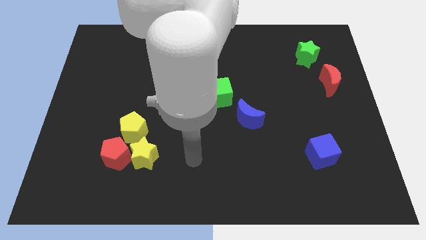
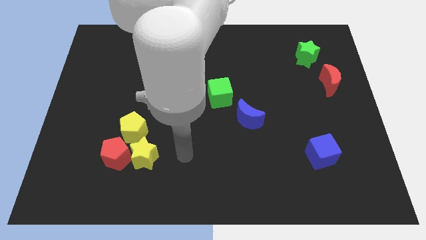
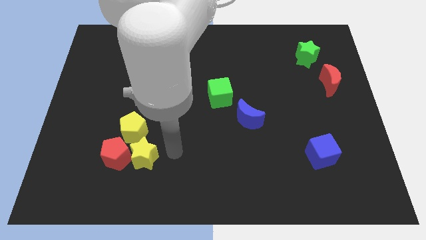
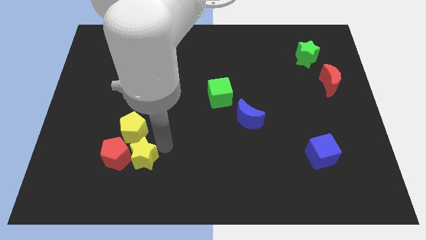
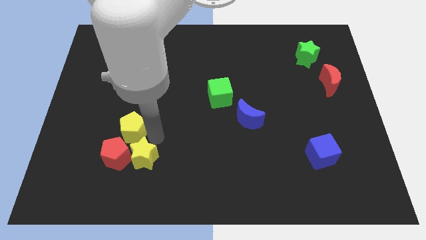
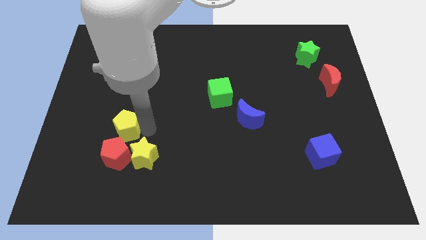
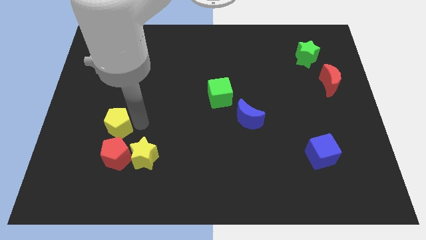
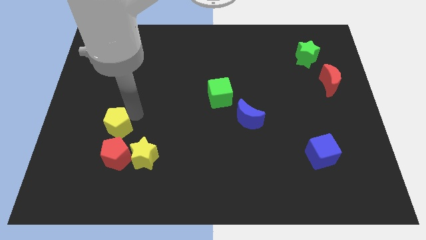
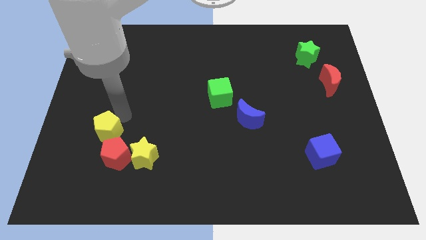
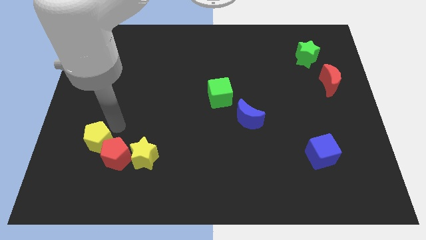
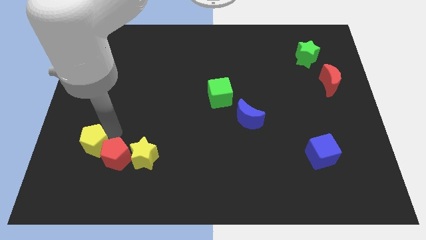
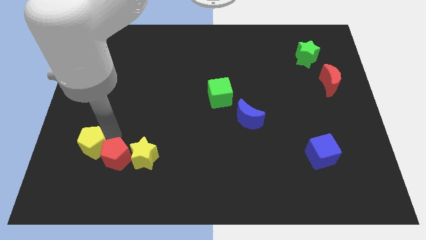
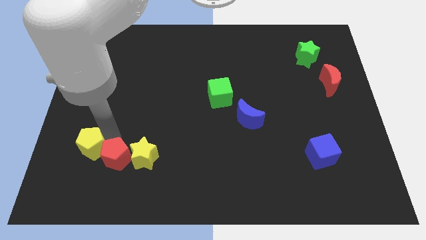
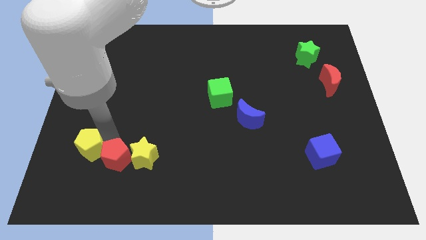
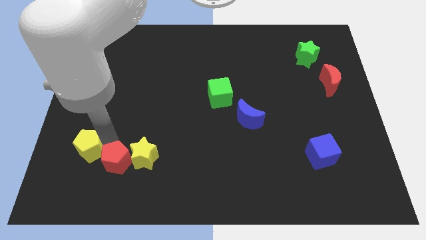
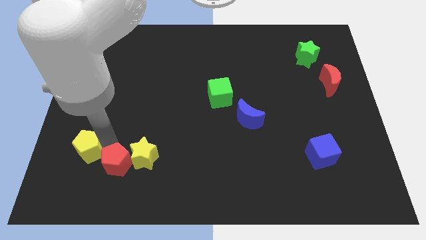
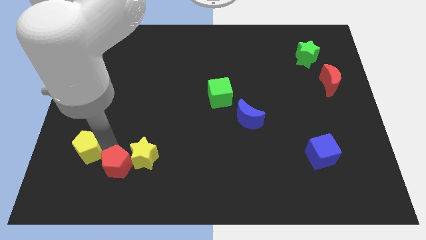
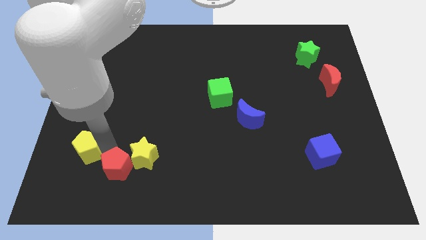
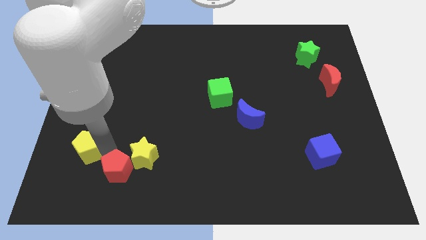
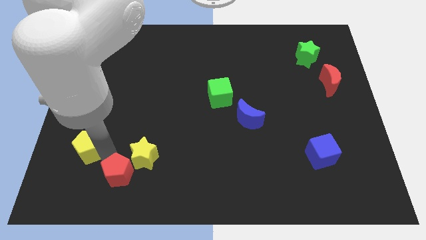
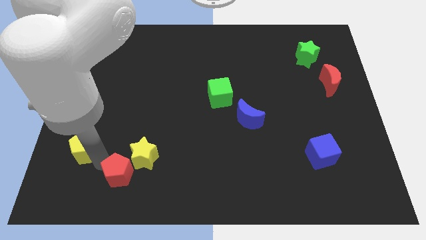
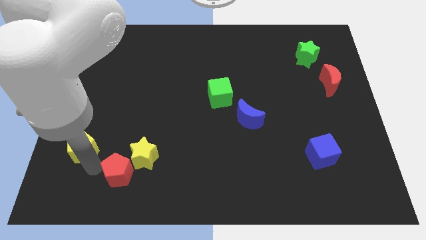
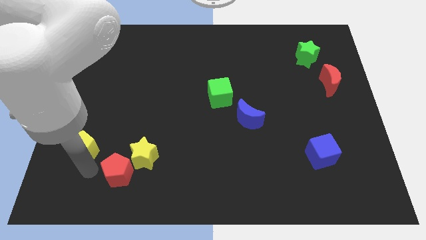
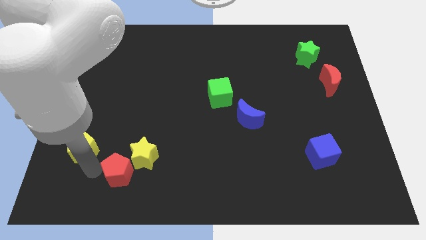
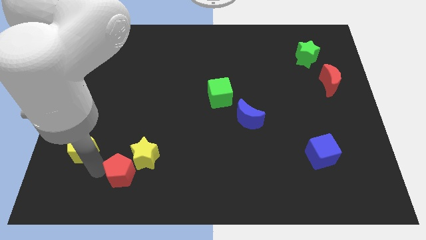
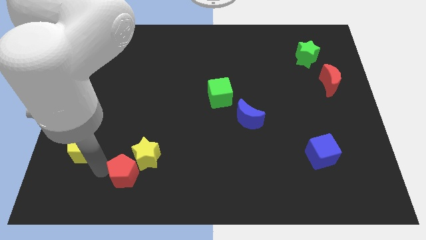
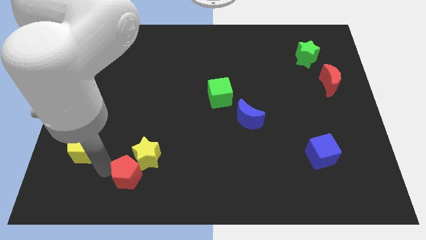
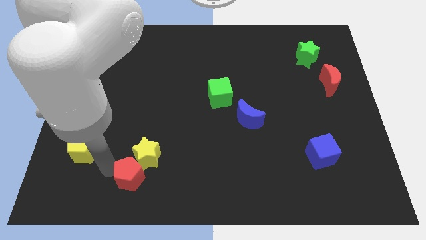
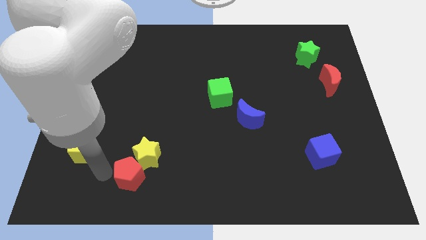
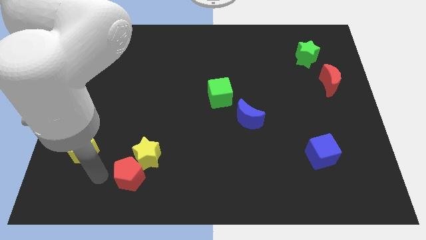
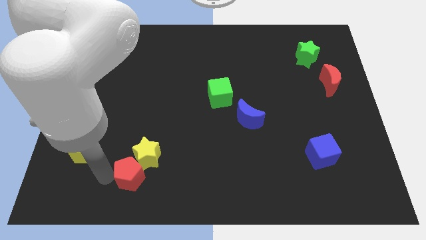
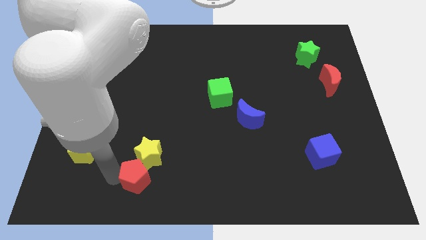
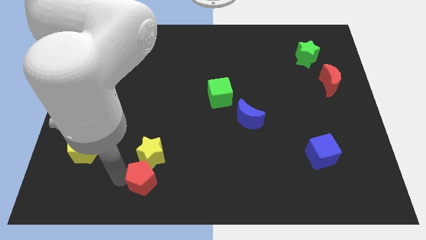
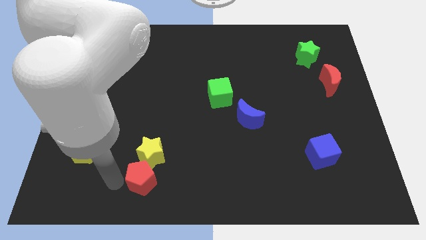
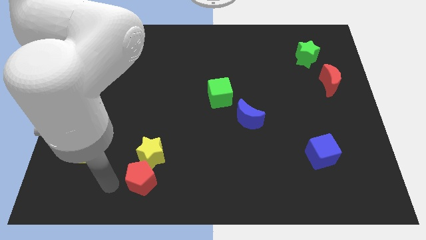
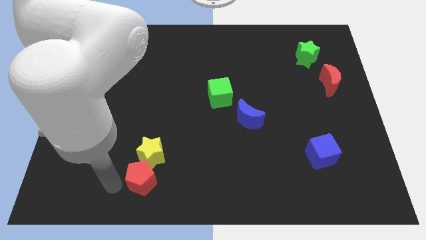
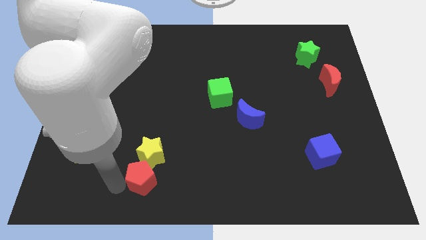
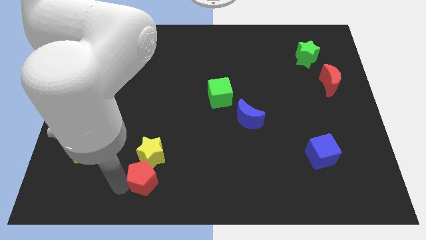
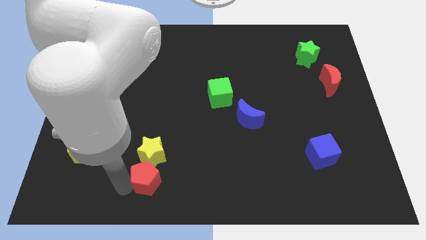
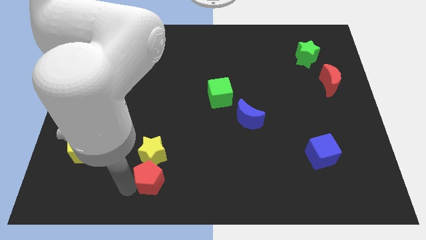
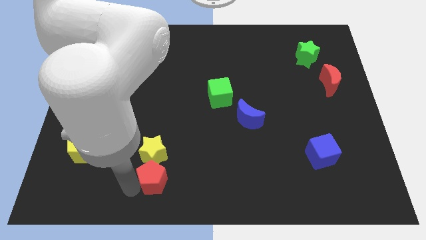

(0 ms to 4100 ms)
slide the red pentagon to the right somewhat

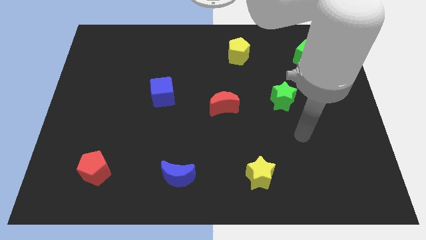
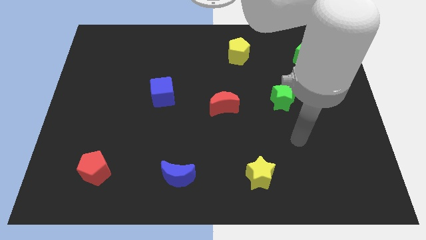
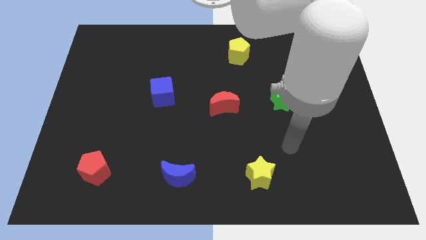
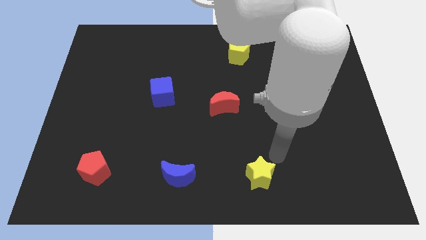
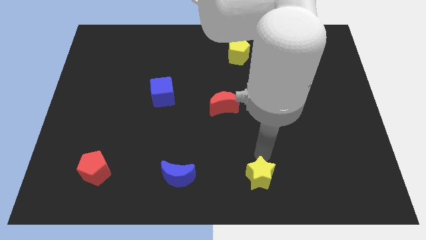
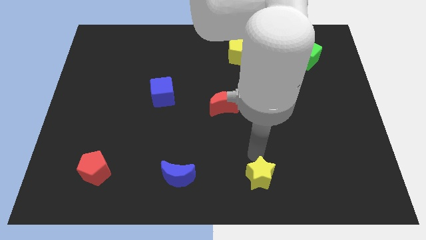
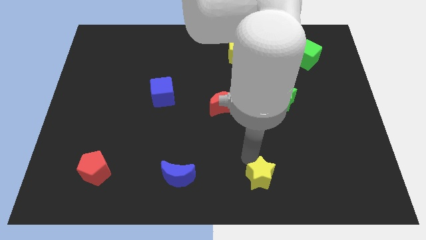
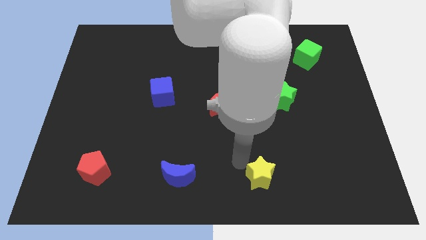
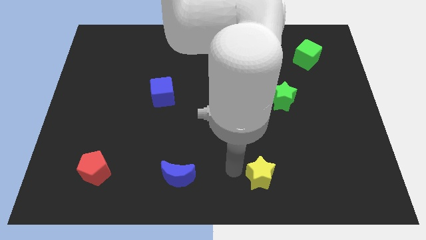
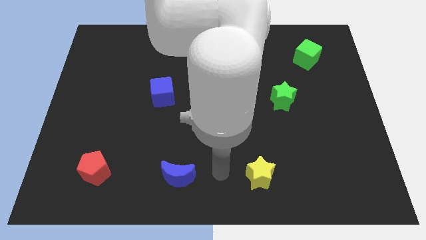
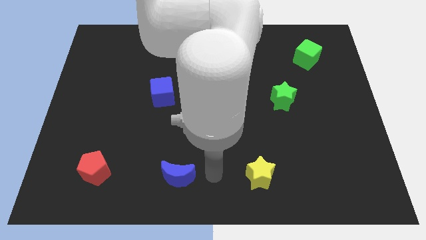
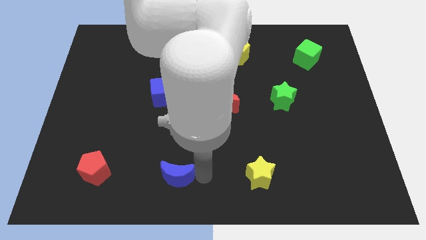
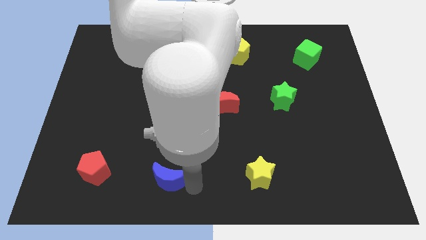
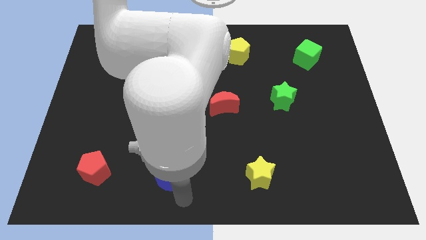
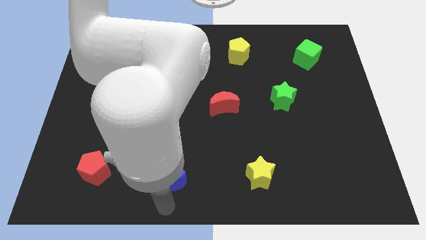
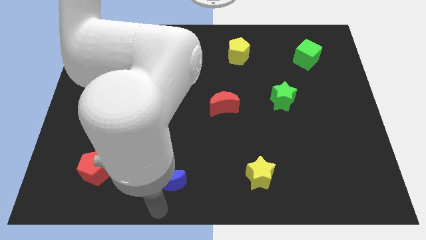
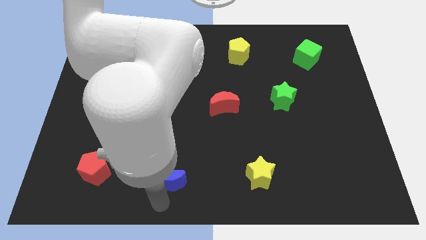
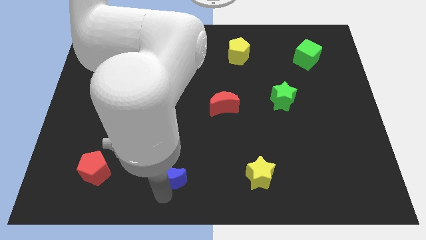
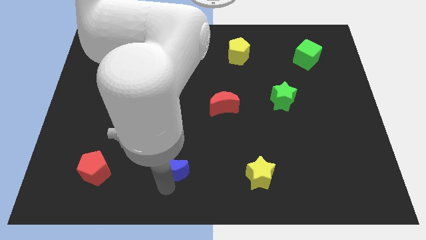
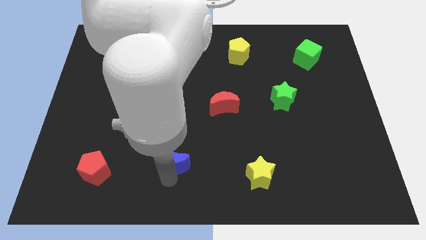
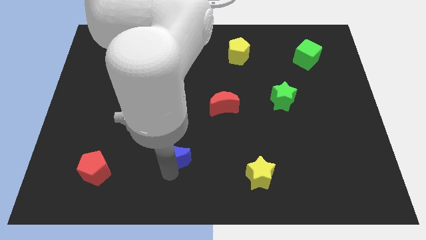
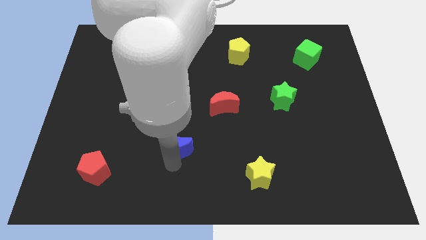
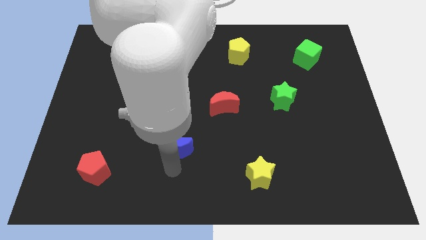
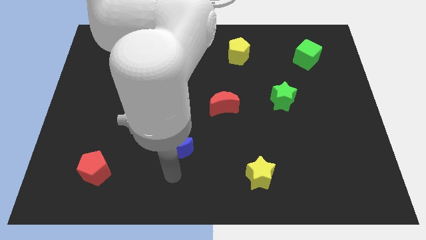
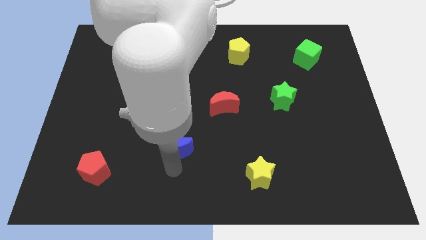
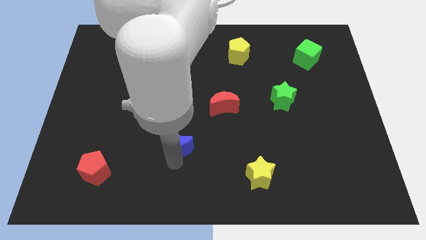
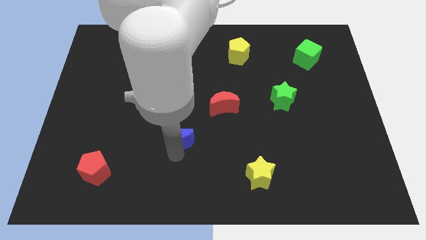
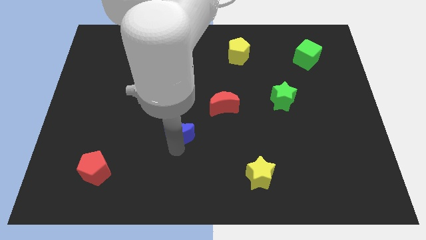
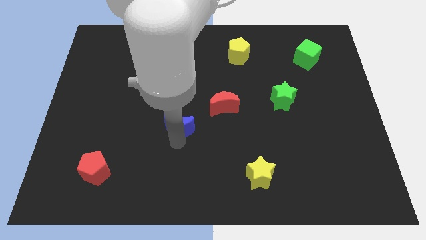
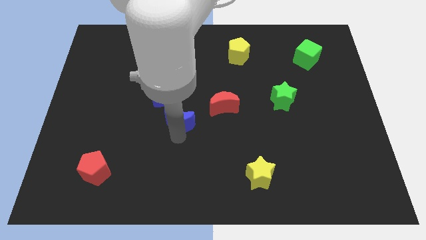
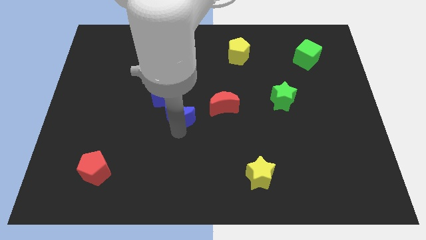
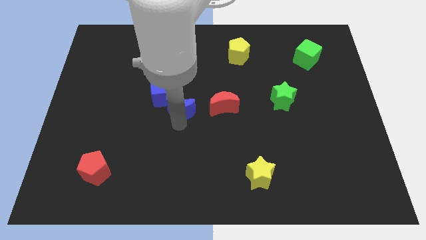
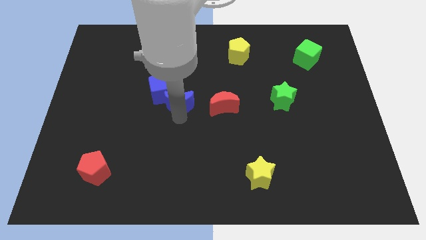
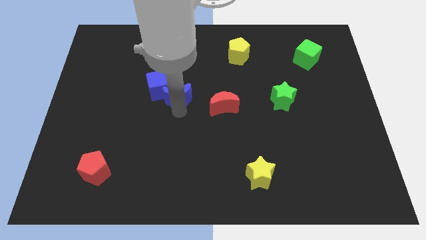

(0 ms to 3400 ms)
push the blue moon up

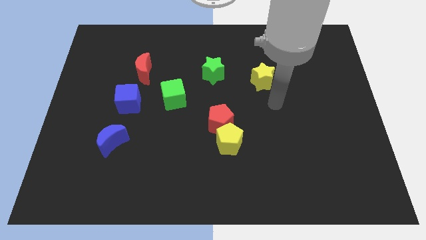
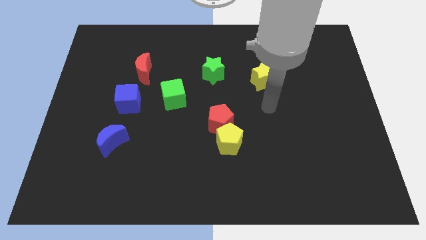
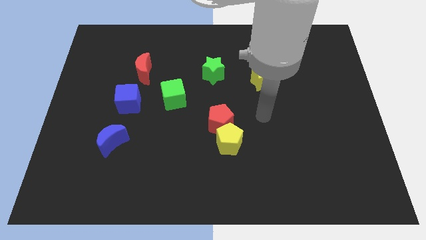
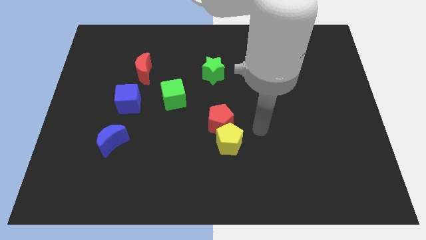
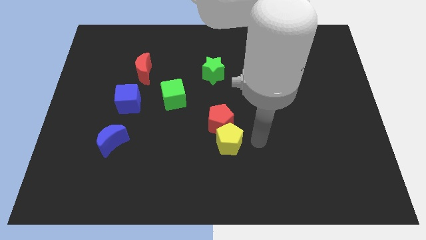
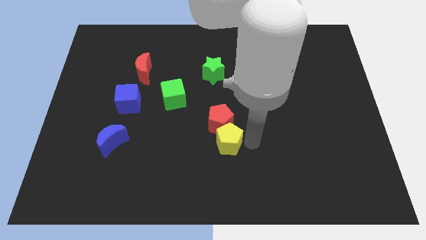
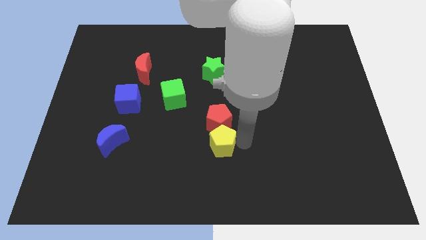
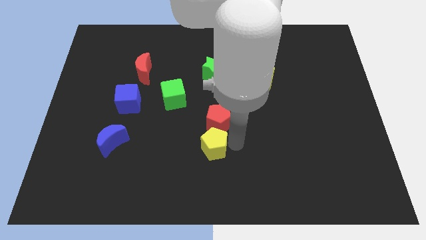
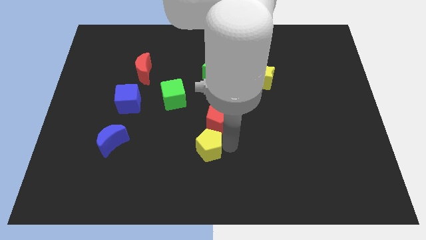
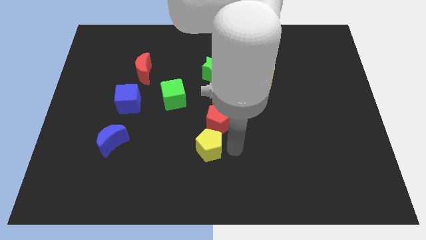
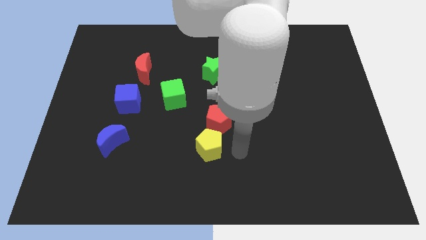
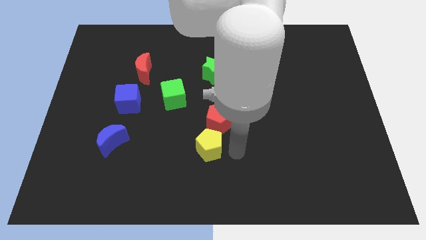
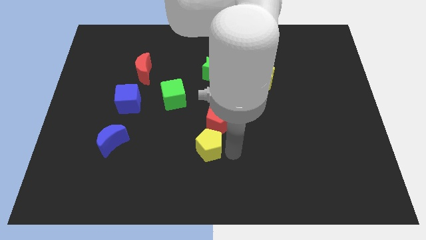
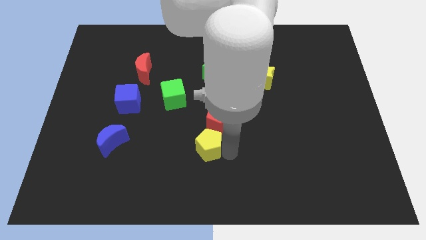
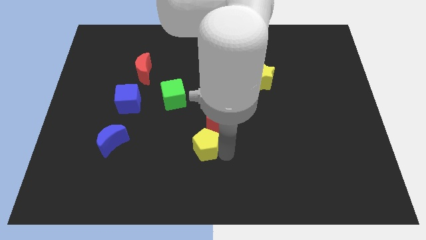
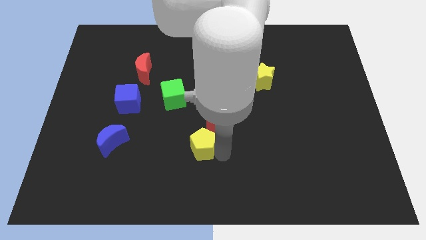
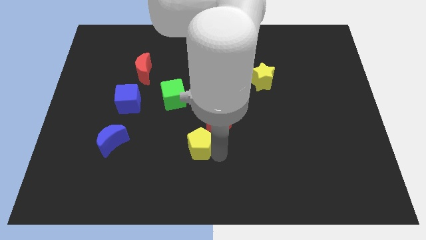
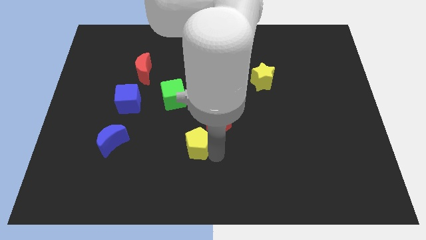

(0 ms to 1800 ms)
move the yellow pentagon to the left slightly
